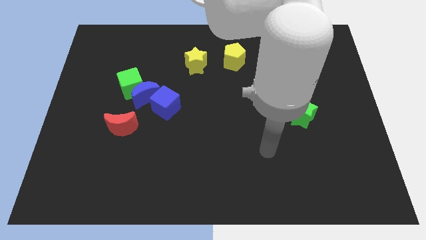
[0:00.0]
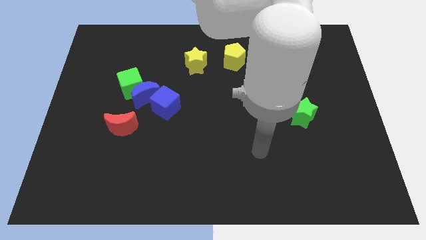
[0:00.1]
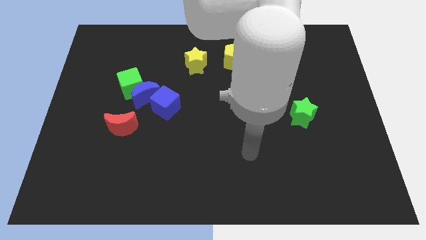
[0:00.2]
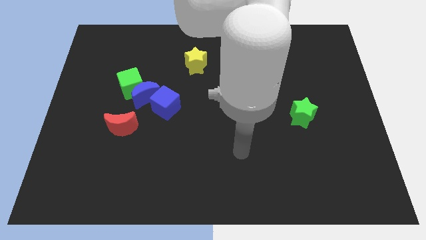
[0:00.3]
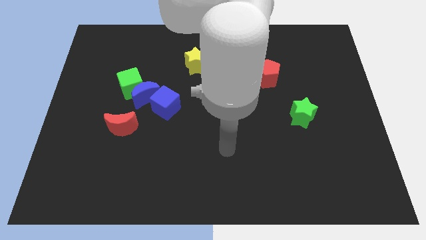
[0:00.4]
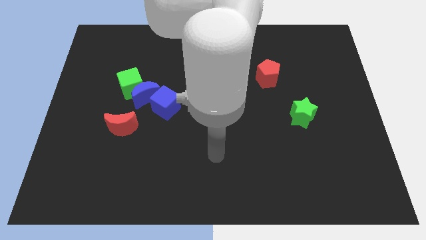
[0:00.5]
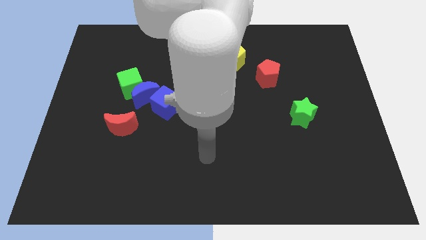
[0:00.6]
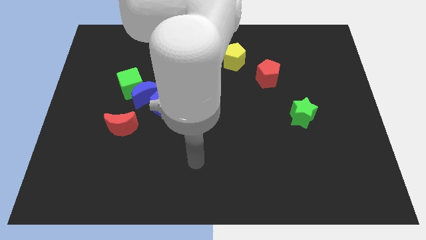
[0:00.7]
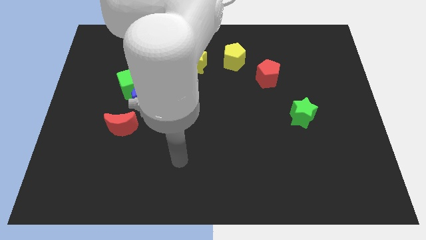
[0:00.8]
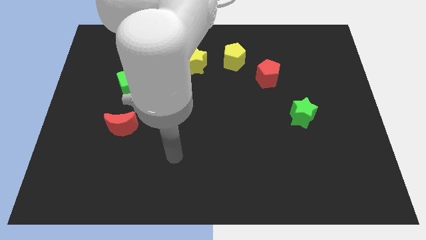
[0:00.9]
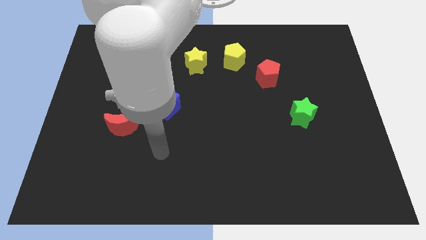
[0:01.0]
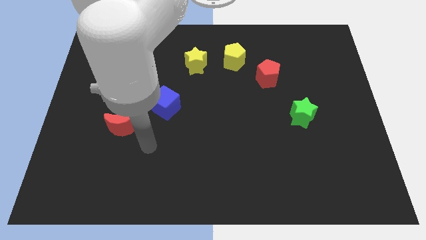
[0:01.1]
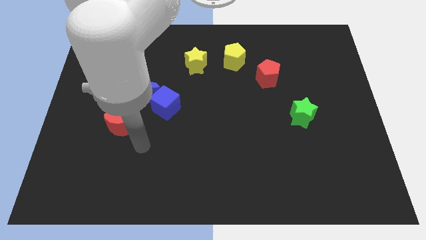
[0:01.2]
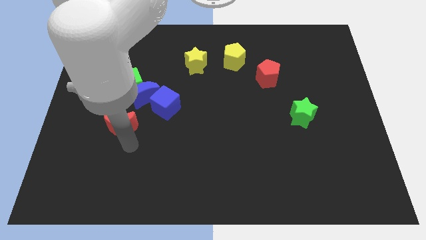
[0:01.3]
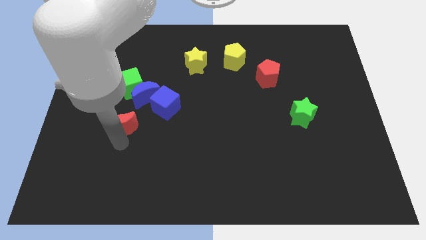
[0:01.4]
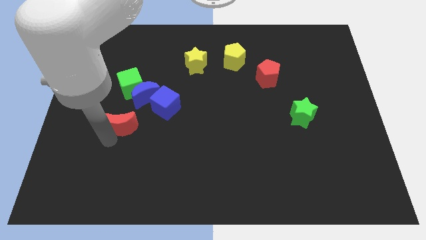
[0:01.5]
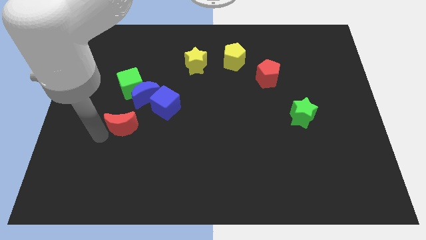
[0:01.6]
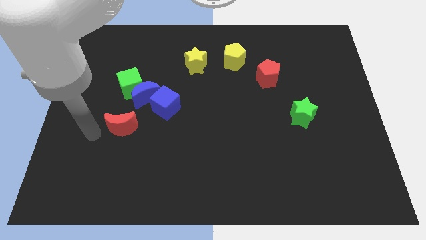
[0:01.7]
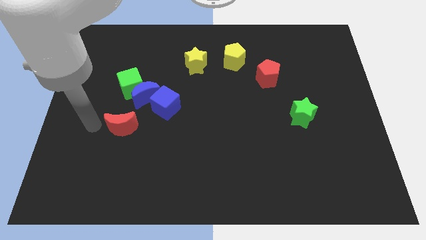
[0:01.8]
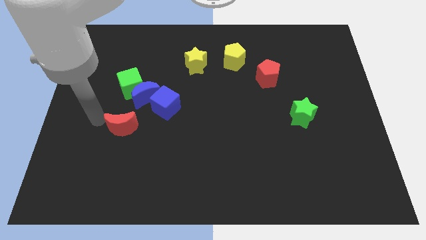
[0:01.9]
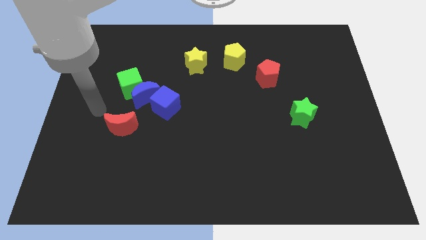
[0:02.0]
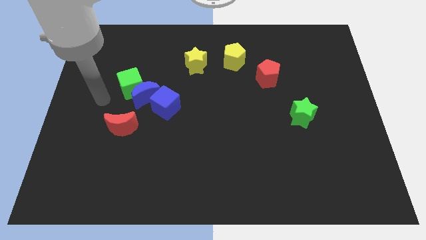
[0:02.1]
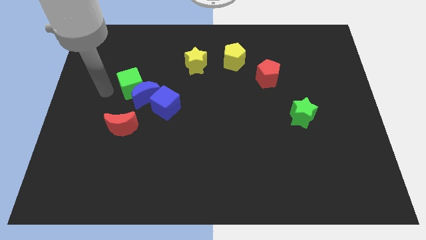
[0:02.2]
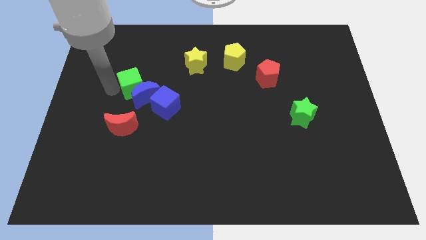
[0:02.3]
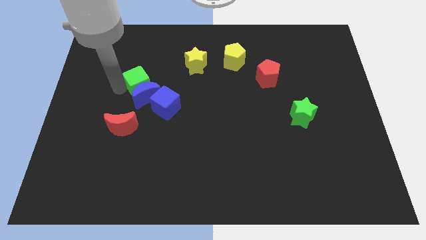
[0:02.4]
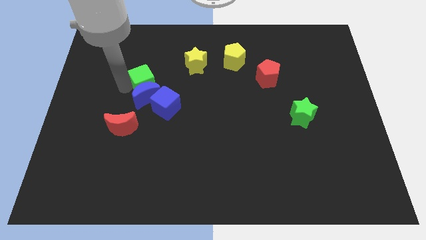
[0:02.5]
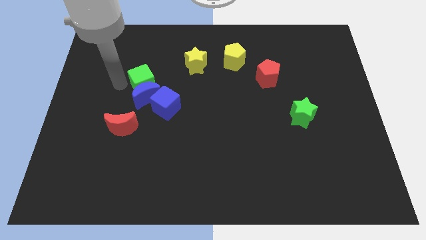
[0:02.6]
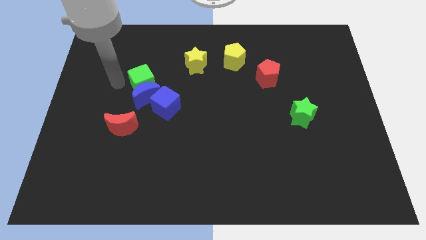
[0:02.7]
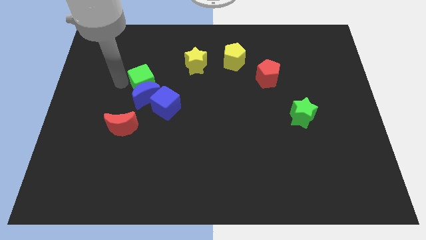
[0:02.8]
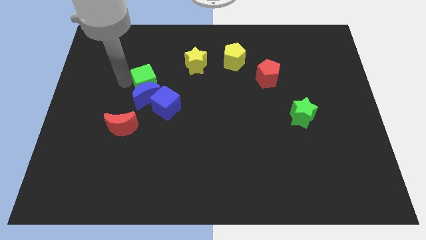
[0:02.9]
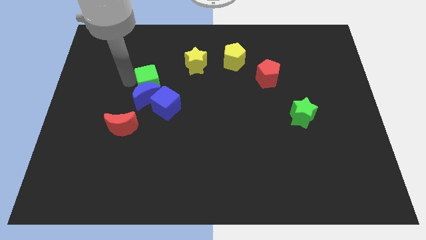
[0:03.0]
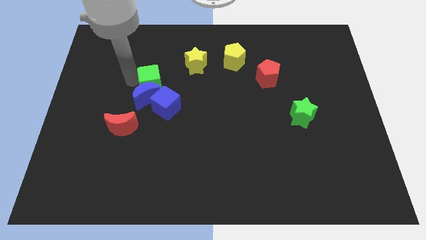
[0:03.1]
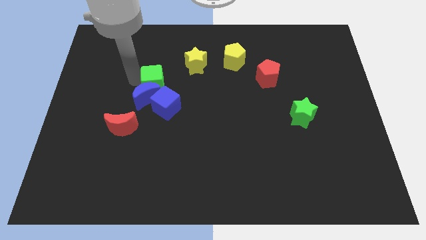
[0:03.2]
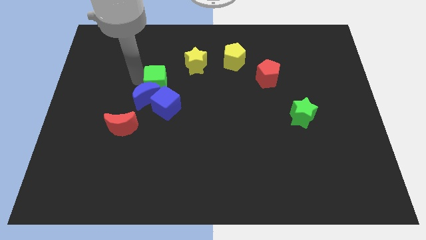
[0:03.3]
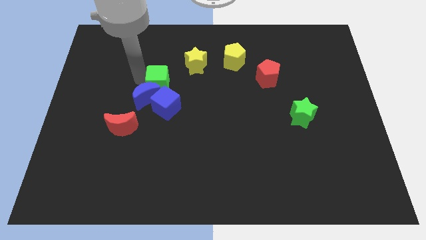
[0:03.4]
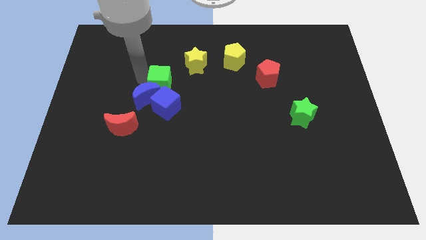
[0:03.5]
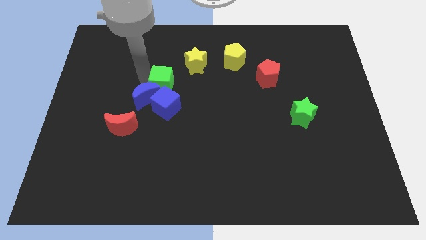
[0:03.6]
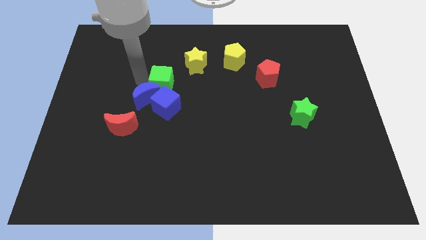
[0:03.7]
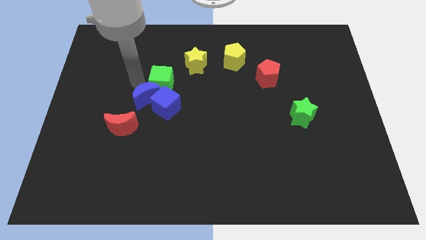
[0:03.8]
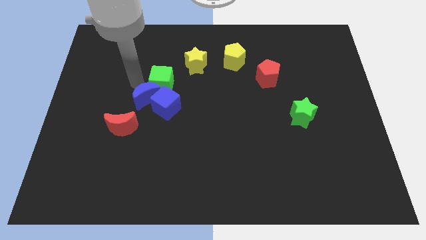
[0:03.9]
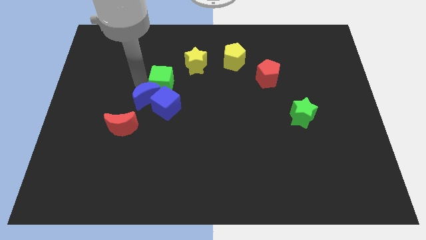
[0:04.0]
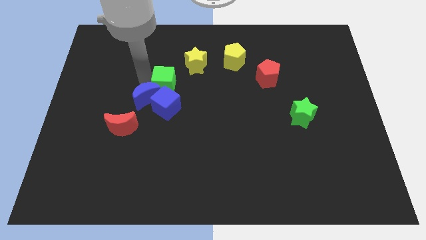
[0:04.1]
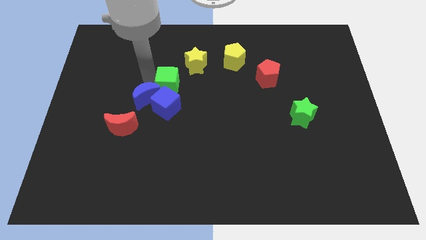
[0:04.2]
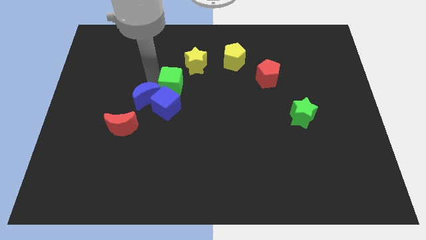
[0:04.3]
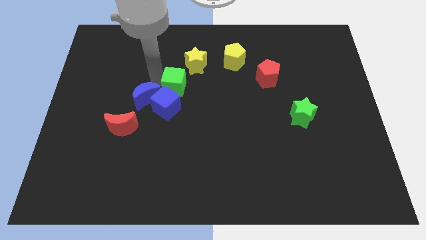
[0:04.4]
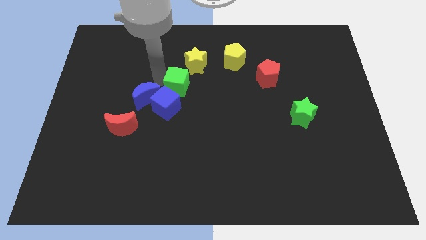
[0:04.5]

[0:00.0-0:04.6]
push the green cube to the bottom side of the yellow star

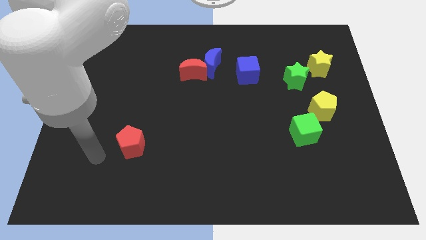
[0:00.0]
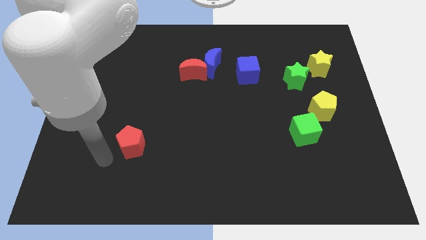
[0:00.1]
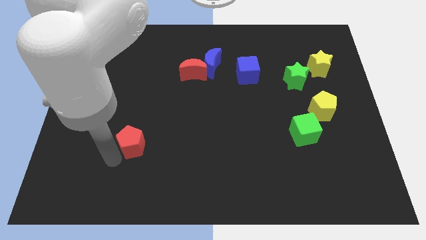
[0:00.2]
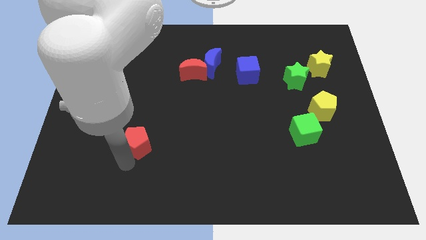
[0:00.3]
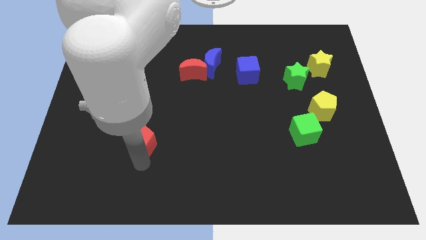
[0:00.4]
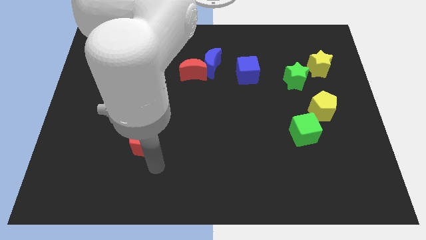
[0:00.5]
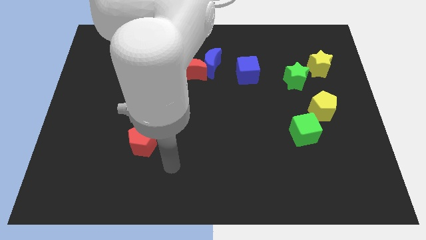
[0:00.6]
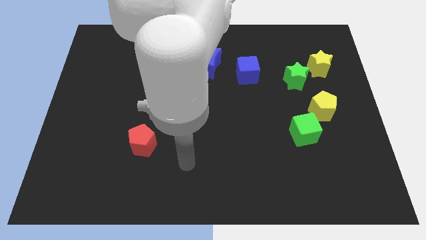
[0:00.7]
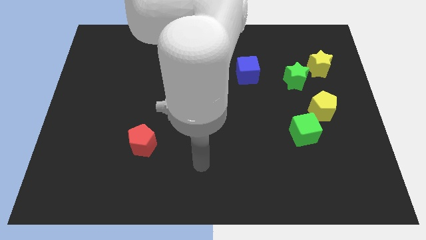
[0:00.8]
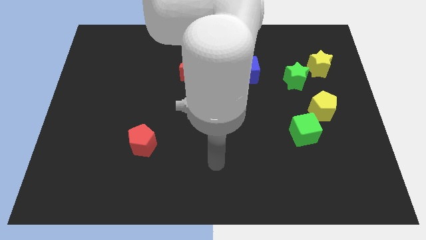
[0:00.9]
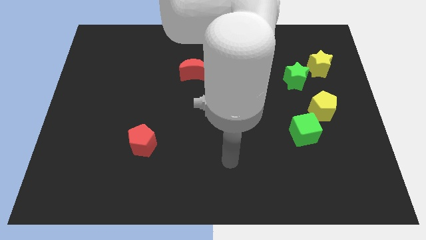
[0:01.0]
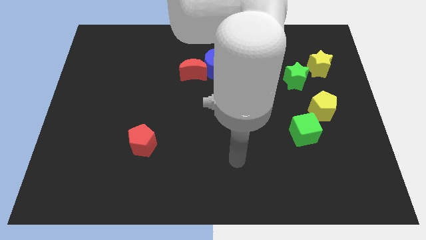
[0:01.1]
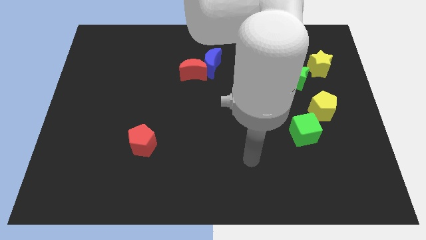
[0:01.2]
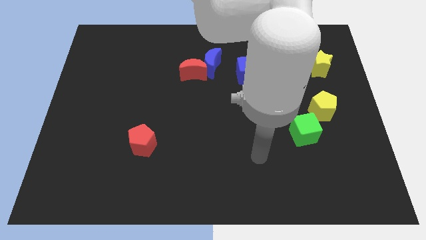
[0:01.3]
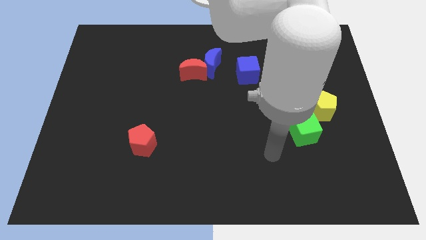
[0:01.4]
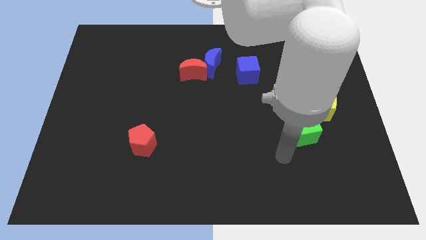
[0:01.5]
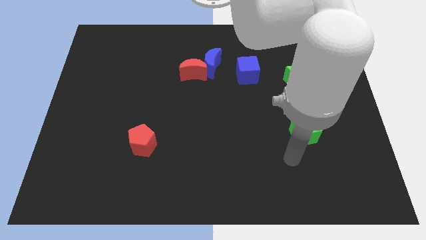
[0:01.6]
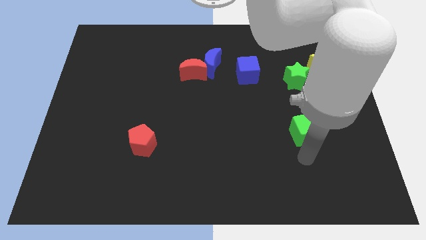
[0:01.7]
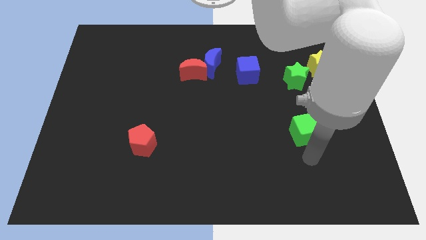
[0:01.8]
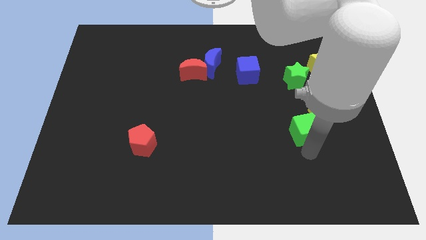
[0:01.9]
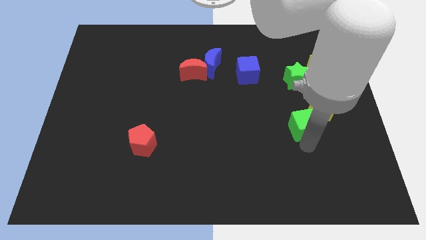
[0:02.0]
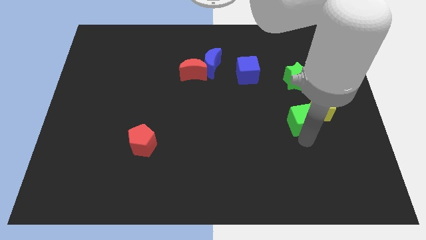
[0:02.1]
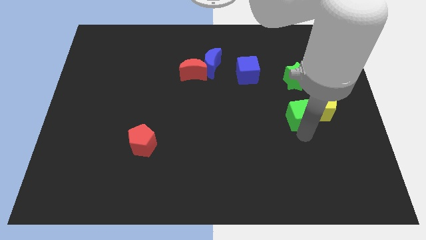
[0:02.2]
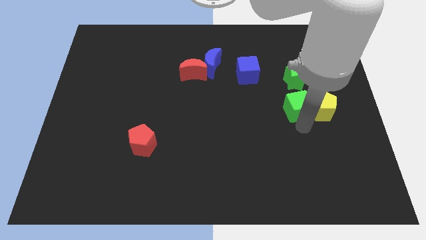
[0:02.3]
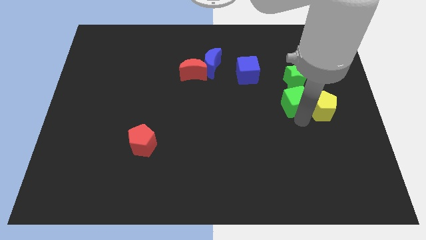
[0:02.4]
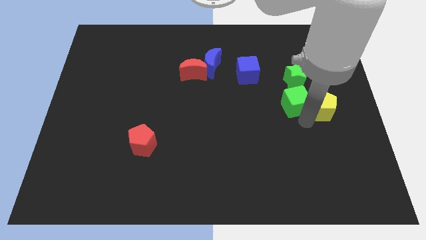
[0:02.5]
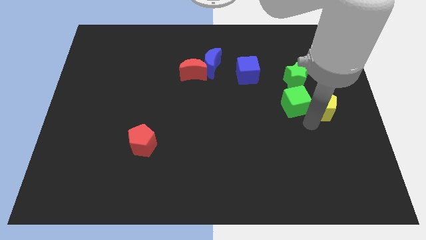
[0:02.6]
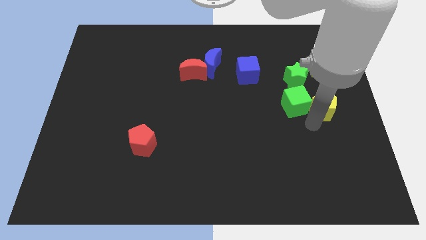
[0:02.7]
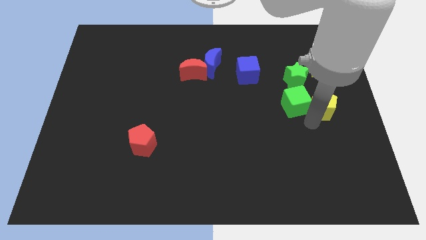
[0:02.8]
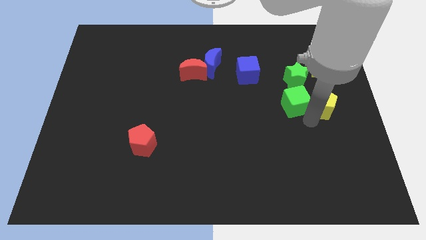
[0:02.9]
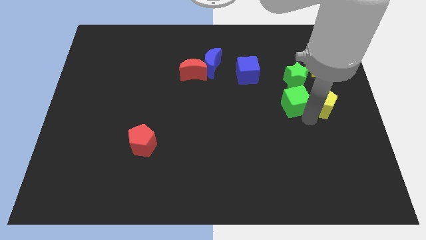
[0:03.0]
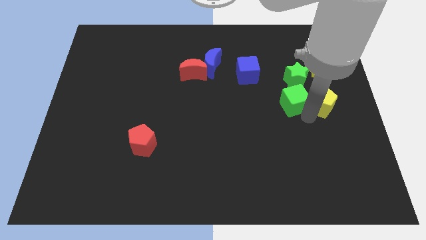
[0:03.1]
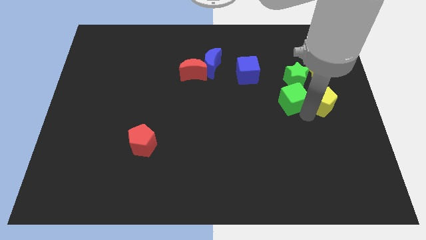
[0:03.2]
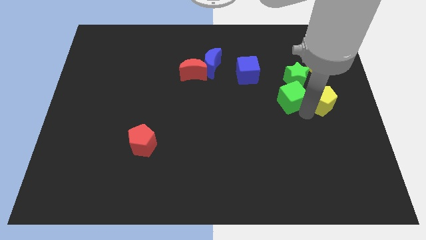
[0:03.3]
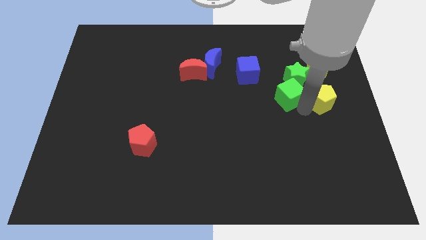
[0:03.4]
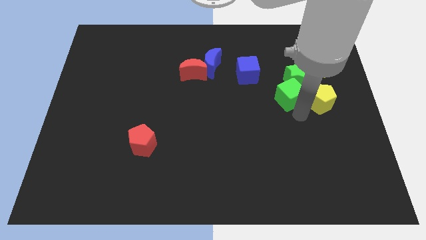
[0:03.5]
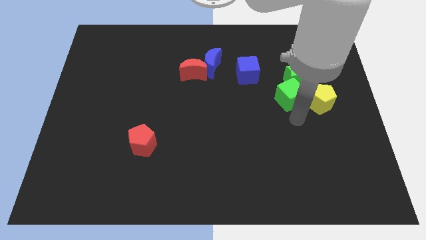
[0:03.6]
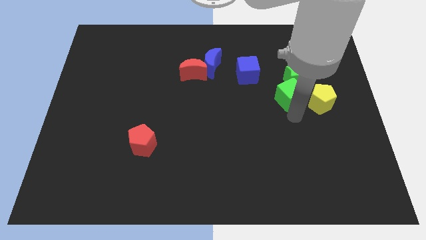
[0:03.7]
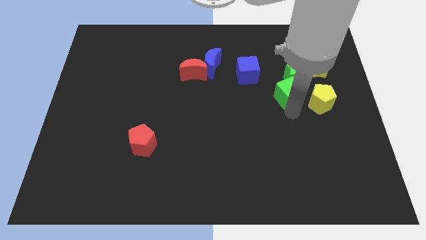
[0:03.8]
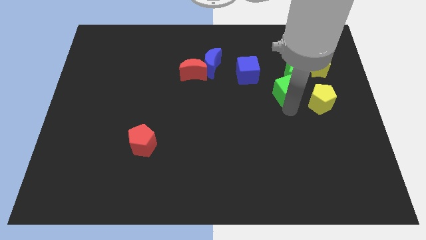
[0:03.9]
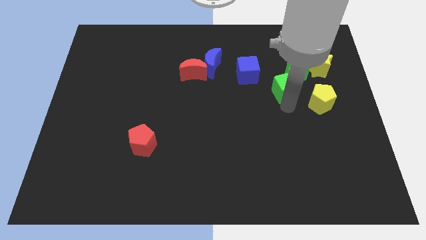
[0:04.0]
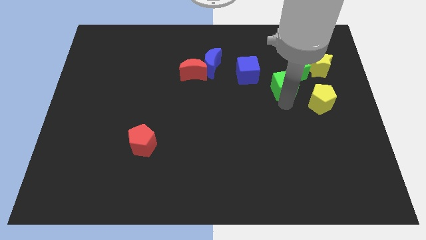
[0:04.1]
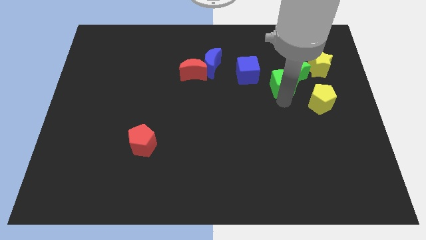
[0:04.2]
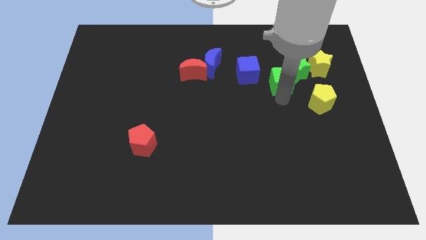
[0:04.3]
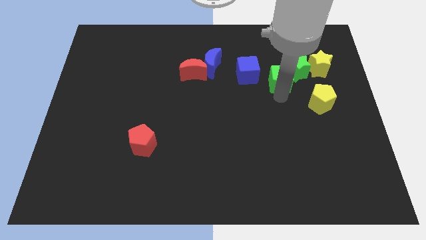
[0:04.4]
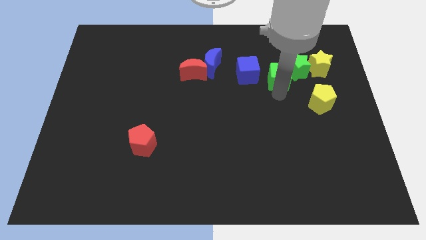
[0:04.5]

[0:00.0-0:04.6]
slide the green cube to the left side of the yellow star
